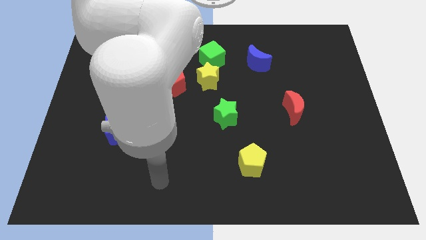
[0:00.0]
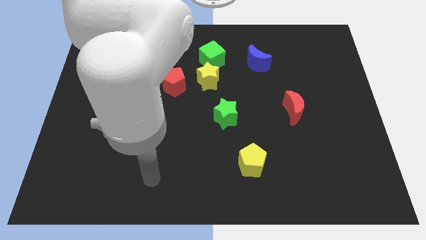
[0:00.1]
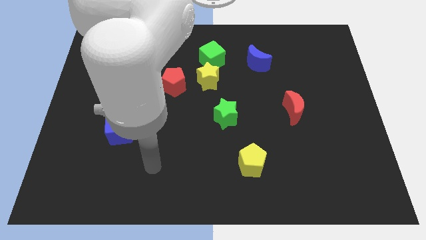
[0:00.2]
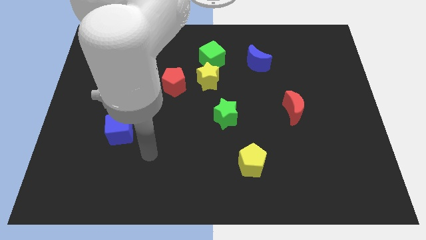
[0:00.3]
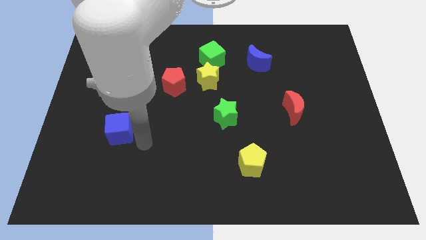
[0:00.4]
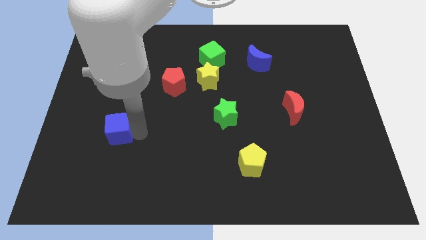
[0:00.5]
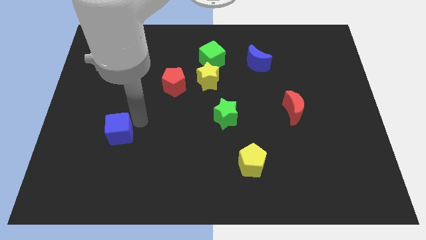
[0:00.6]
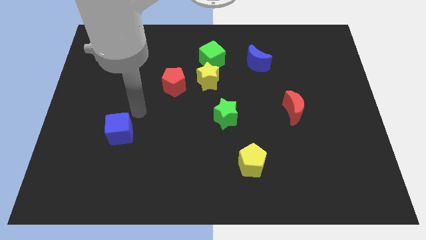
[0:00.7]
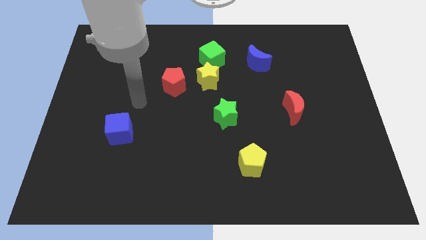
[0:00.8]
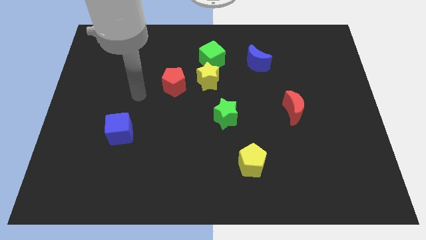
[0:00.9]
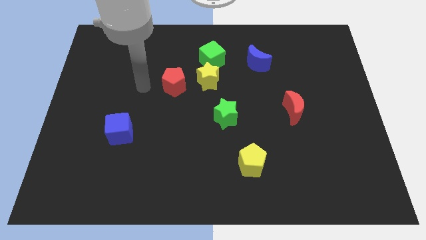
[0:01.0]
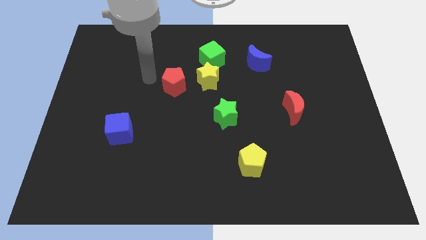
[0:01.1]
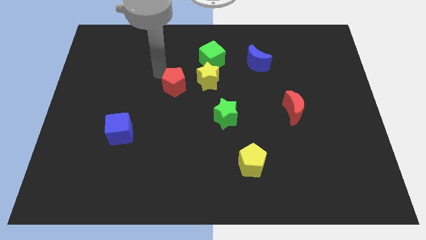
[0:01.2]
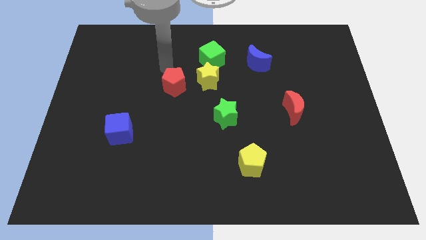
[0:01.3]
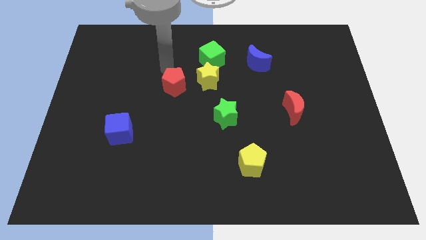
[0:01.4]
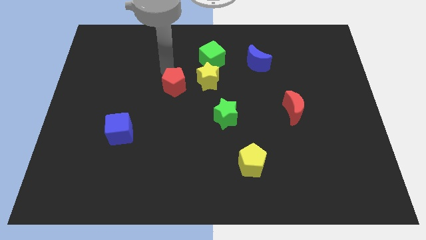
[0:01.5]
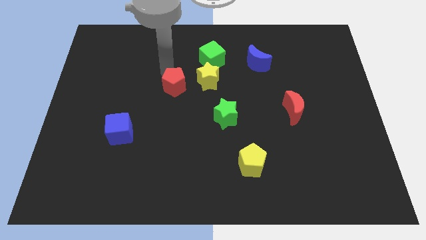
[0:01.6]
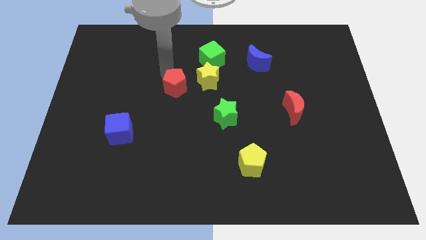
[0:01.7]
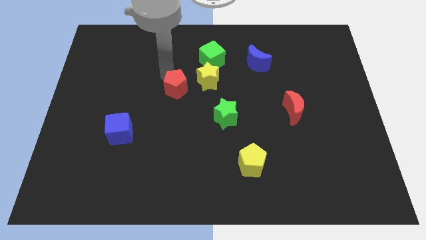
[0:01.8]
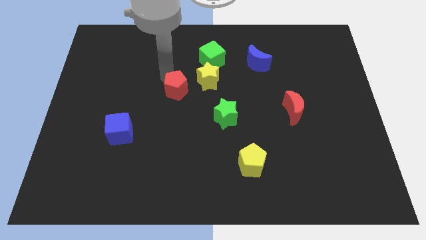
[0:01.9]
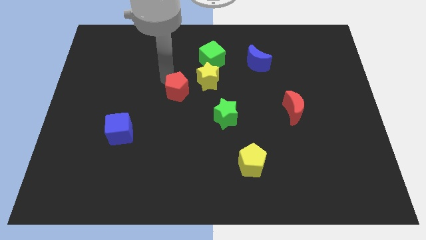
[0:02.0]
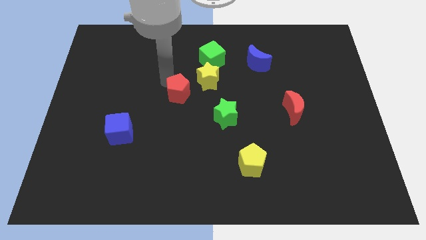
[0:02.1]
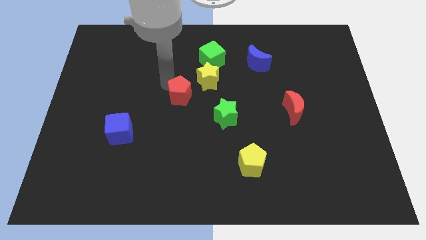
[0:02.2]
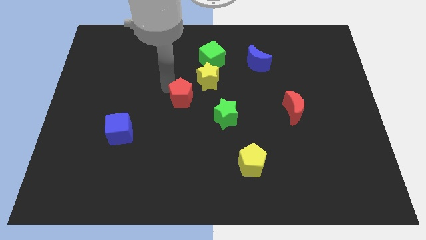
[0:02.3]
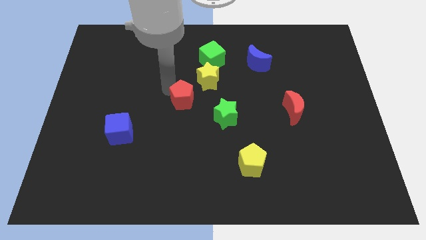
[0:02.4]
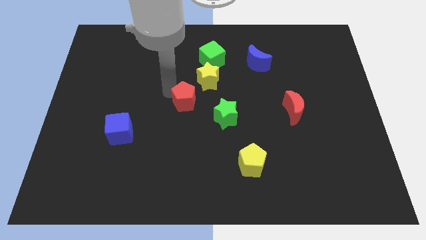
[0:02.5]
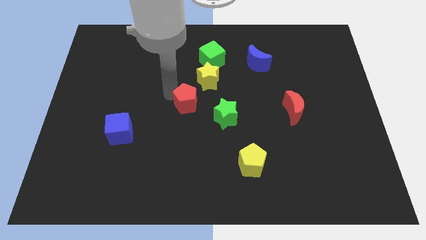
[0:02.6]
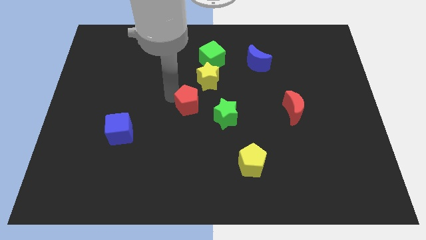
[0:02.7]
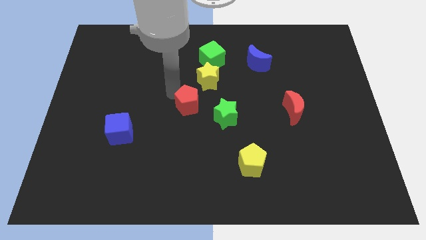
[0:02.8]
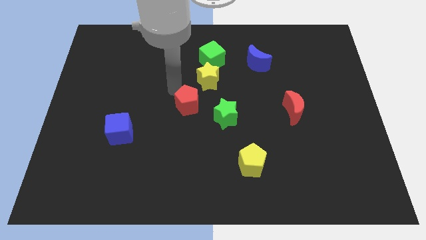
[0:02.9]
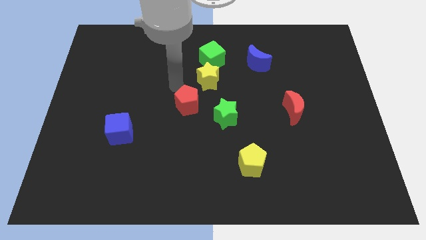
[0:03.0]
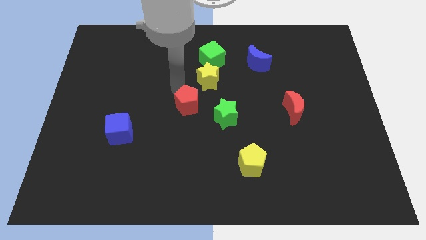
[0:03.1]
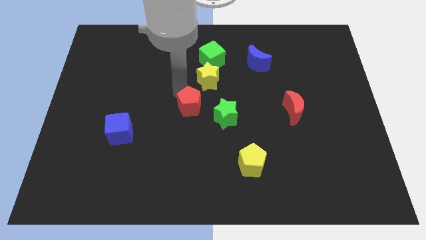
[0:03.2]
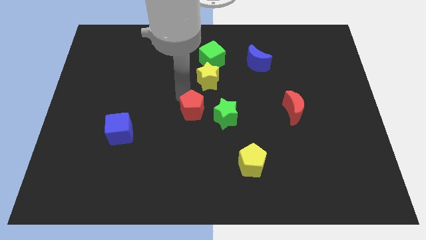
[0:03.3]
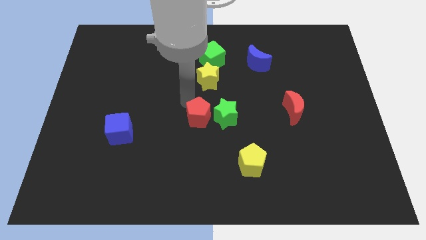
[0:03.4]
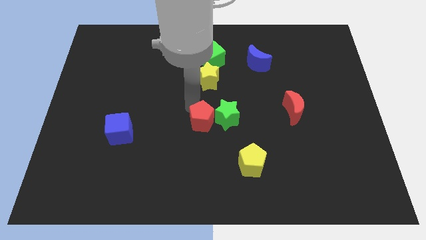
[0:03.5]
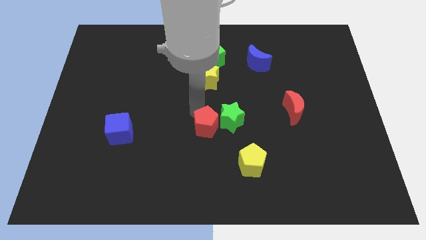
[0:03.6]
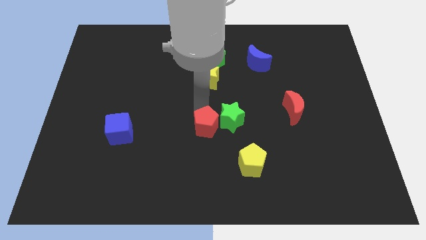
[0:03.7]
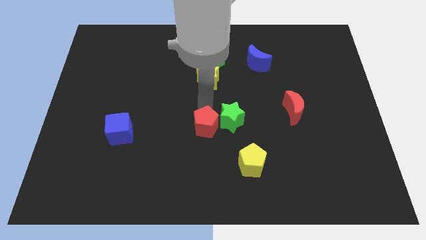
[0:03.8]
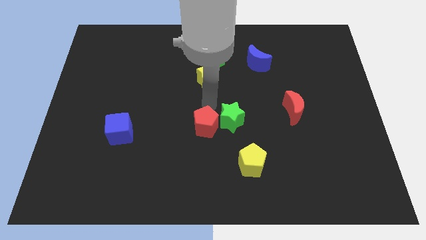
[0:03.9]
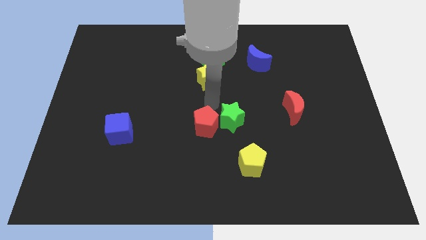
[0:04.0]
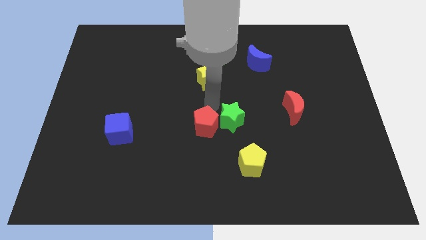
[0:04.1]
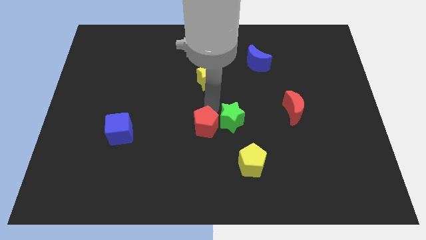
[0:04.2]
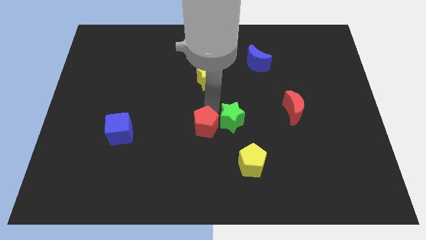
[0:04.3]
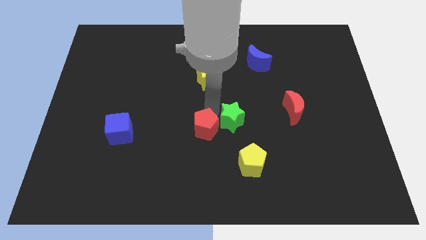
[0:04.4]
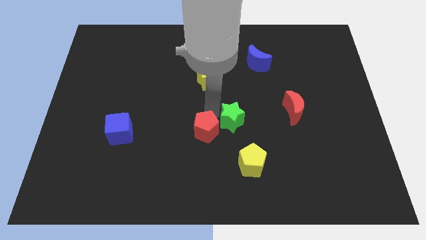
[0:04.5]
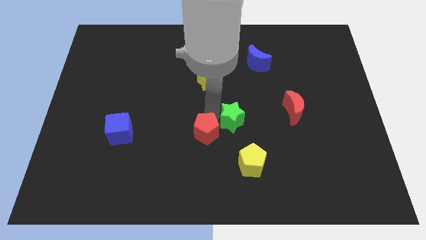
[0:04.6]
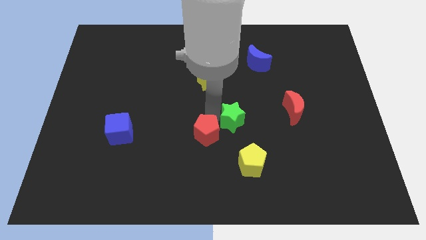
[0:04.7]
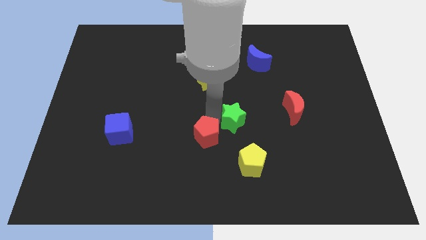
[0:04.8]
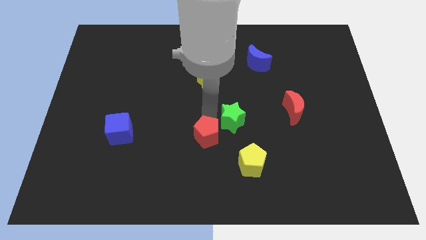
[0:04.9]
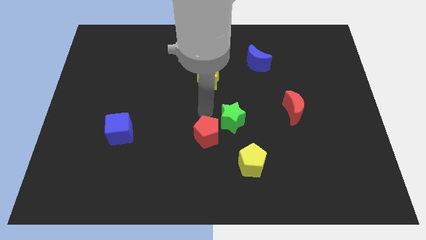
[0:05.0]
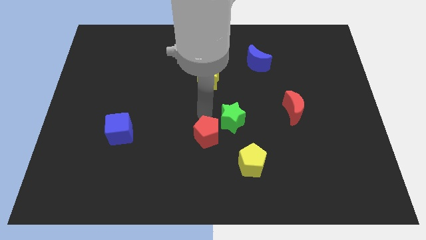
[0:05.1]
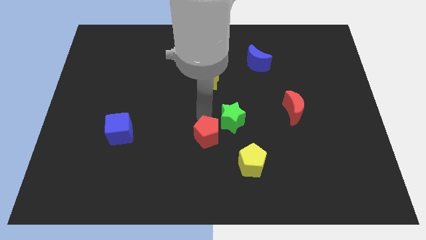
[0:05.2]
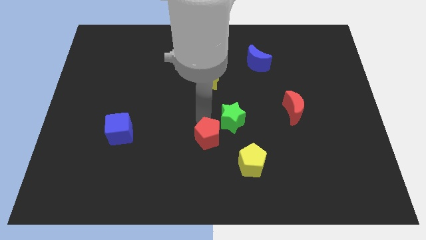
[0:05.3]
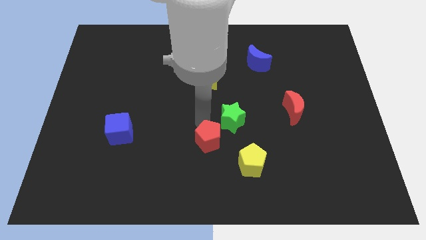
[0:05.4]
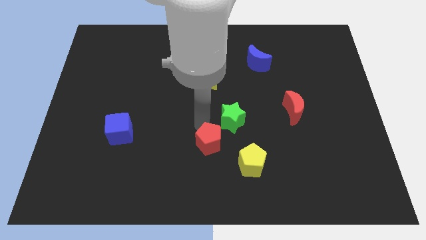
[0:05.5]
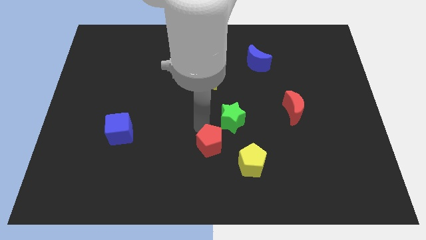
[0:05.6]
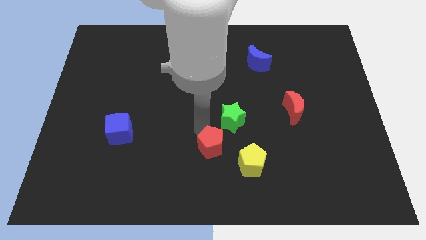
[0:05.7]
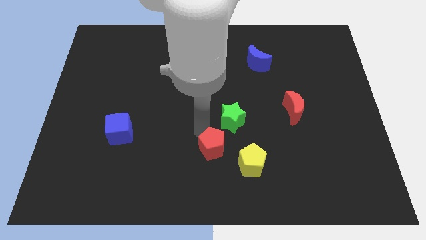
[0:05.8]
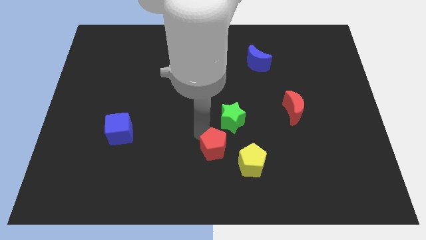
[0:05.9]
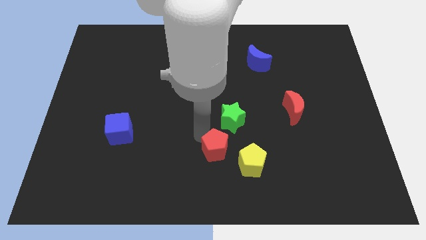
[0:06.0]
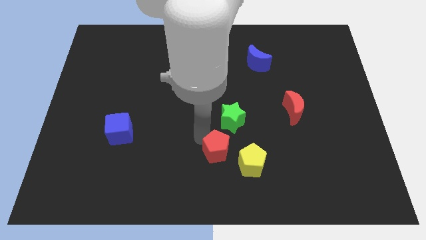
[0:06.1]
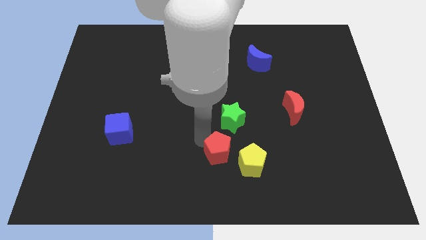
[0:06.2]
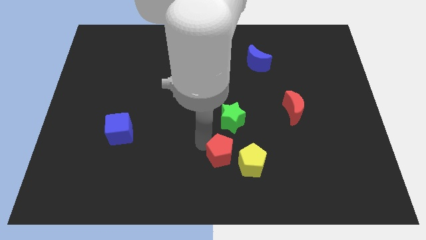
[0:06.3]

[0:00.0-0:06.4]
push the red pentagon to the bottom side
